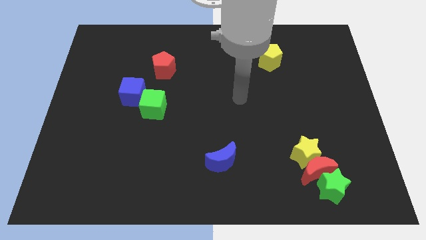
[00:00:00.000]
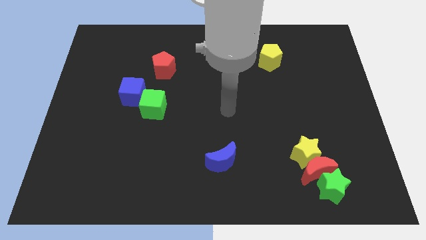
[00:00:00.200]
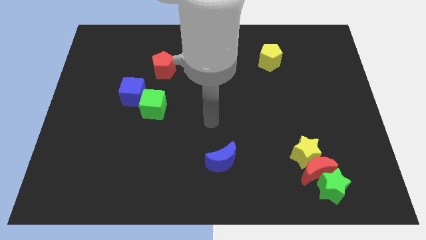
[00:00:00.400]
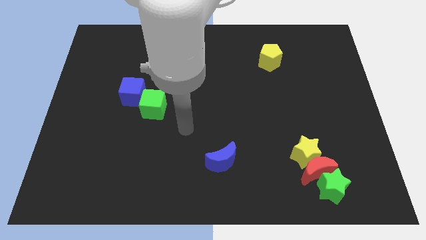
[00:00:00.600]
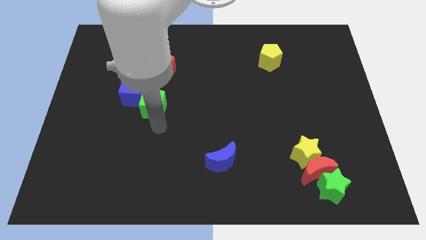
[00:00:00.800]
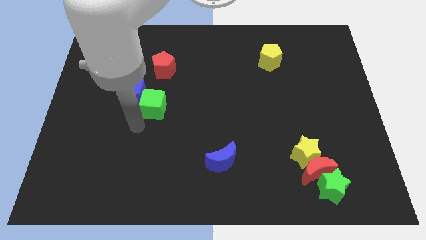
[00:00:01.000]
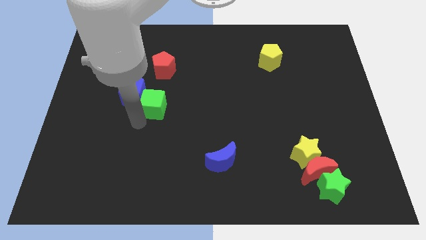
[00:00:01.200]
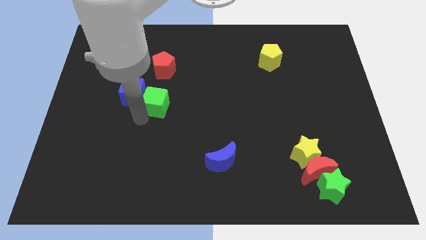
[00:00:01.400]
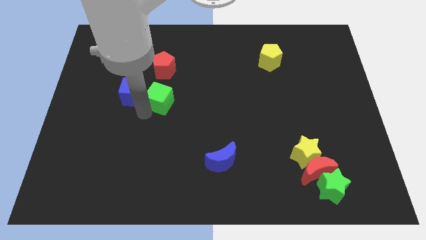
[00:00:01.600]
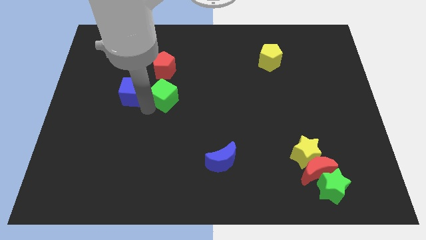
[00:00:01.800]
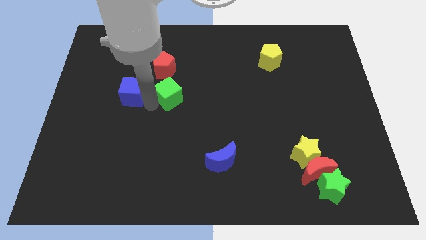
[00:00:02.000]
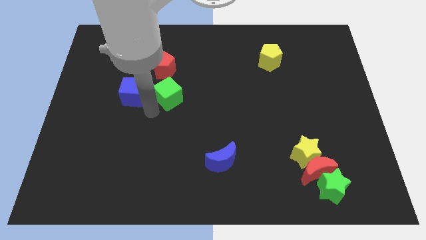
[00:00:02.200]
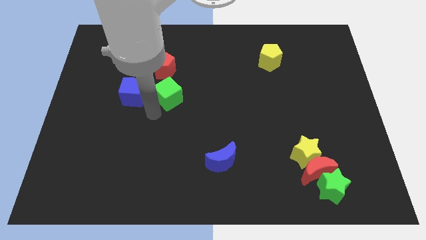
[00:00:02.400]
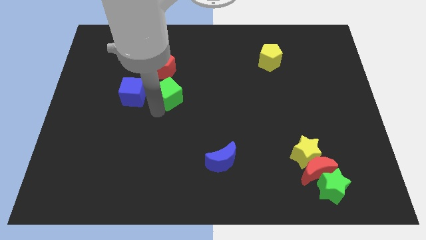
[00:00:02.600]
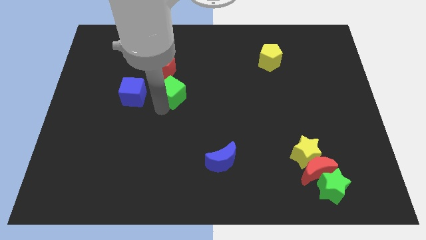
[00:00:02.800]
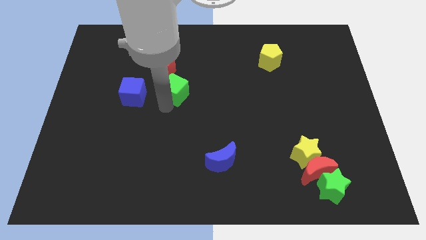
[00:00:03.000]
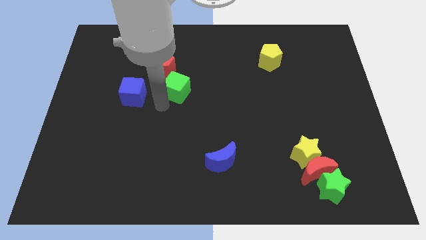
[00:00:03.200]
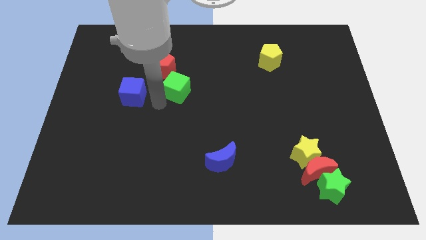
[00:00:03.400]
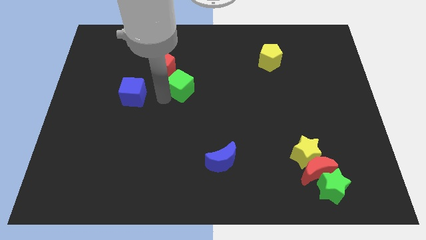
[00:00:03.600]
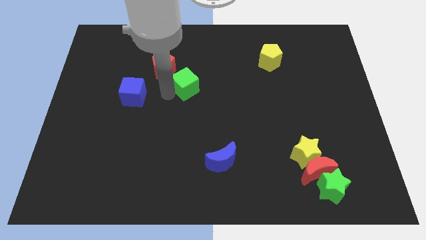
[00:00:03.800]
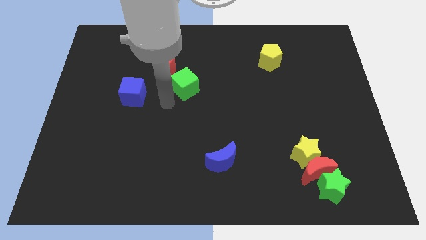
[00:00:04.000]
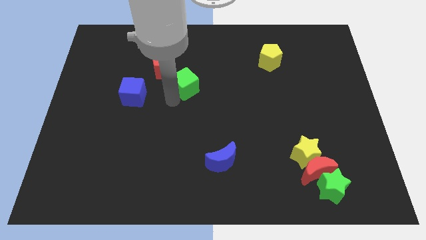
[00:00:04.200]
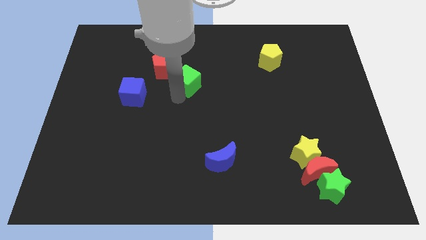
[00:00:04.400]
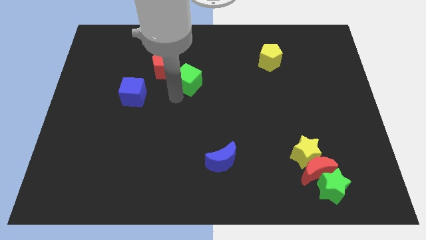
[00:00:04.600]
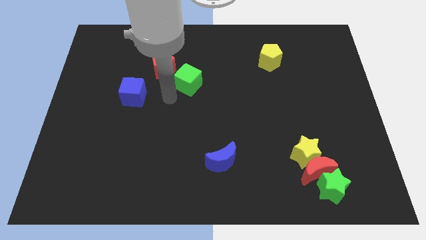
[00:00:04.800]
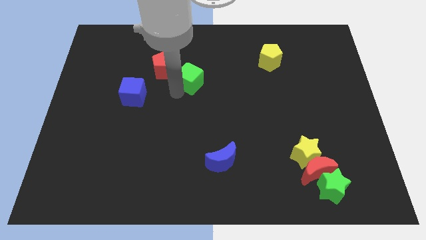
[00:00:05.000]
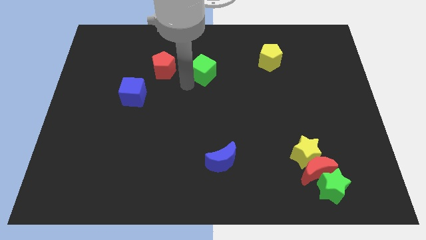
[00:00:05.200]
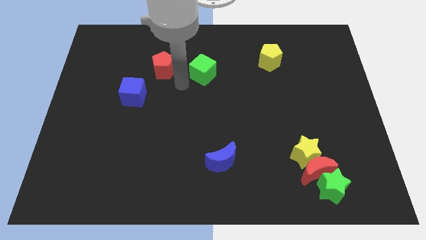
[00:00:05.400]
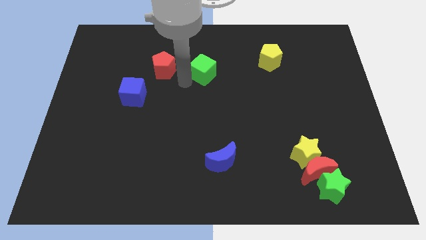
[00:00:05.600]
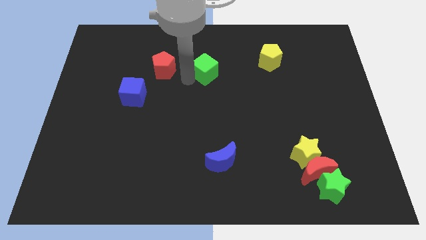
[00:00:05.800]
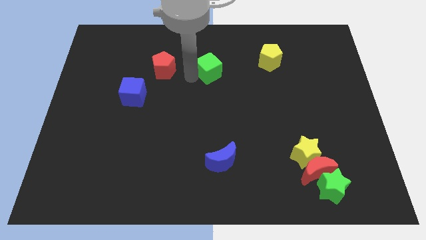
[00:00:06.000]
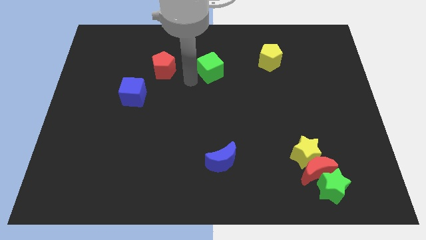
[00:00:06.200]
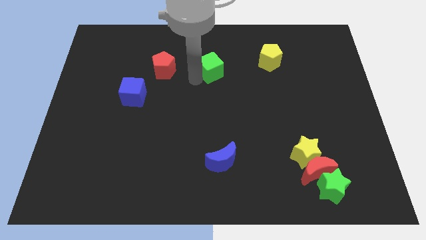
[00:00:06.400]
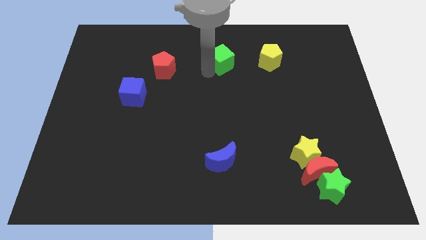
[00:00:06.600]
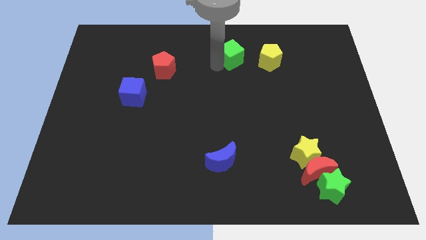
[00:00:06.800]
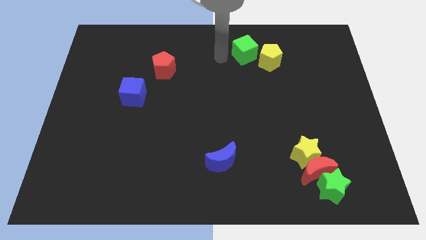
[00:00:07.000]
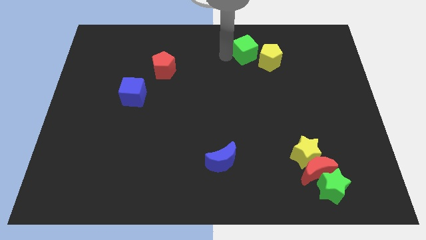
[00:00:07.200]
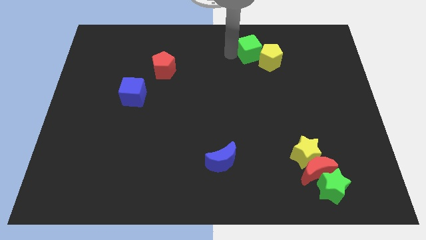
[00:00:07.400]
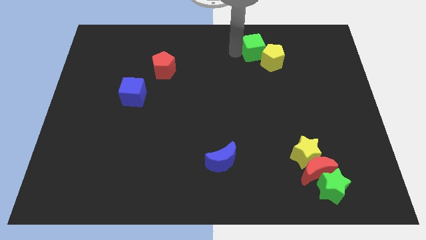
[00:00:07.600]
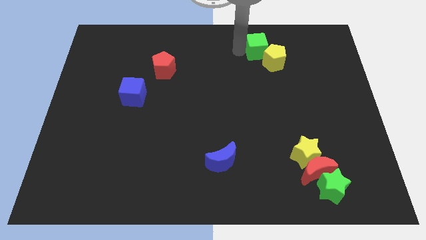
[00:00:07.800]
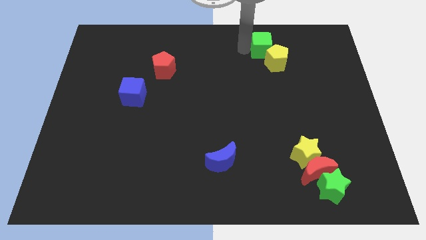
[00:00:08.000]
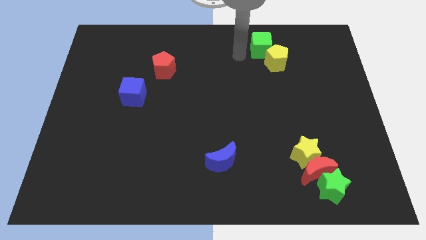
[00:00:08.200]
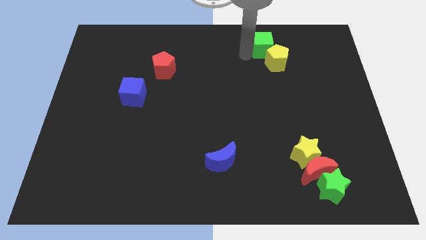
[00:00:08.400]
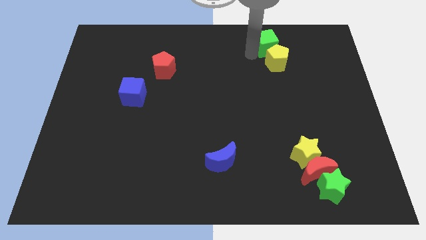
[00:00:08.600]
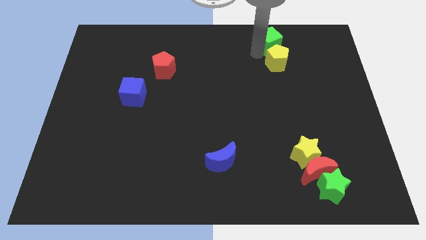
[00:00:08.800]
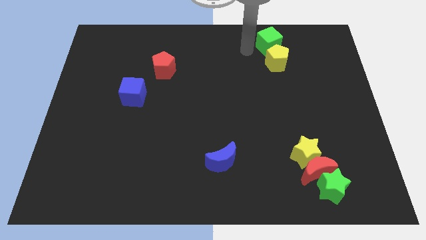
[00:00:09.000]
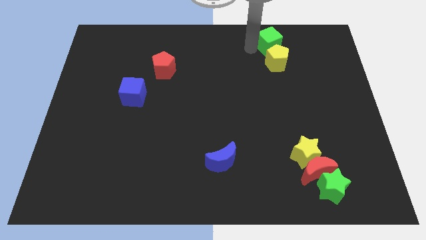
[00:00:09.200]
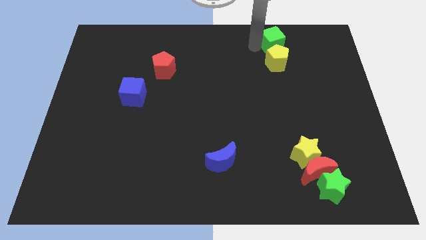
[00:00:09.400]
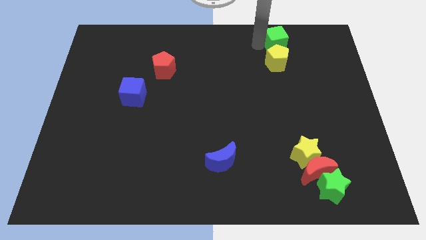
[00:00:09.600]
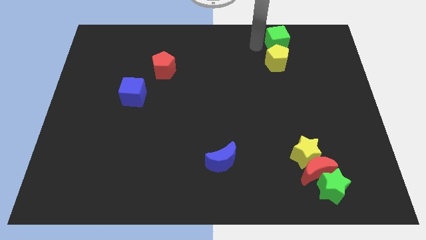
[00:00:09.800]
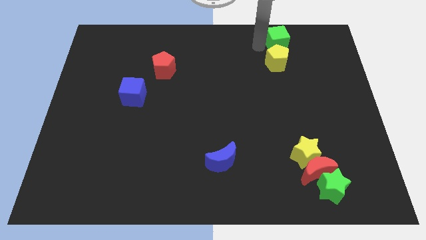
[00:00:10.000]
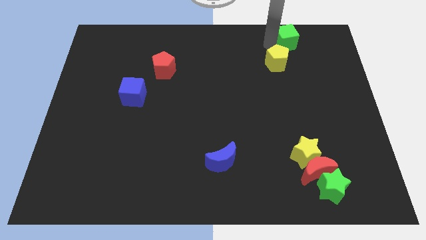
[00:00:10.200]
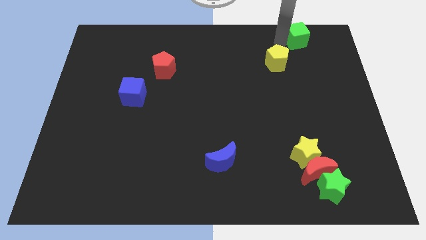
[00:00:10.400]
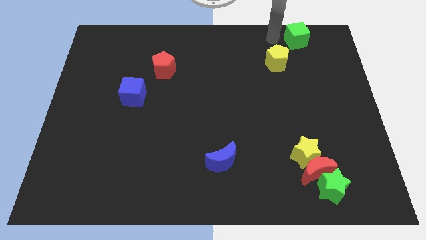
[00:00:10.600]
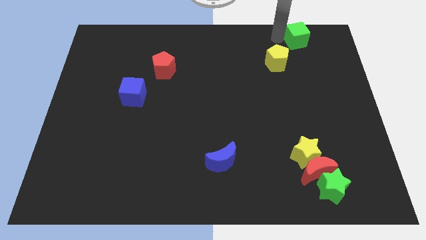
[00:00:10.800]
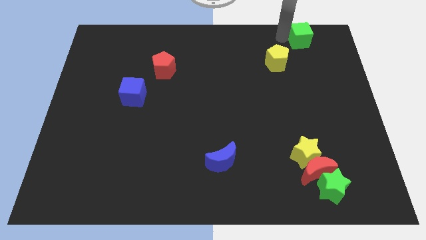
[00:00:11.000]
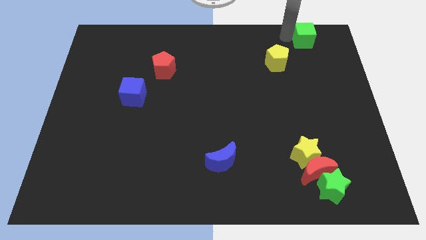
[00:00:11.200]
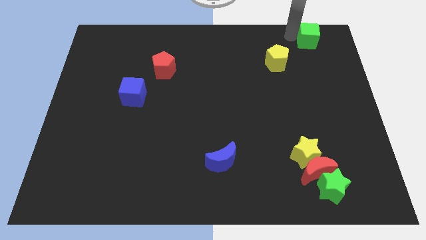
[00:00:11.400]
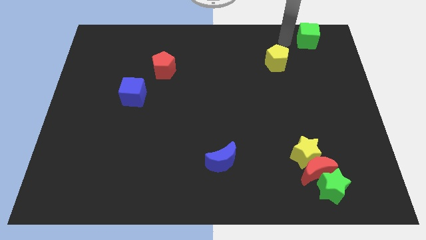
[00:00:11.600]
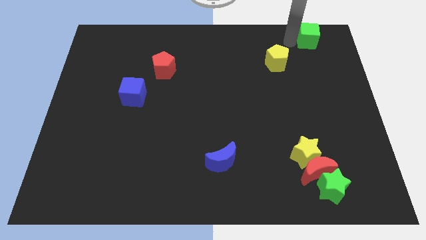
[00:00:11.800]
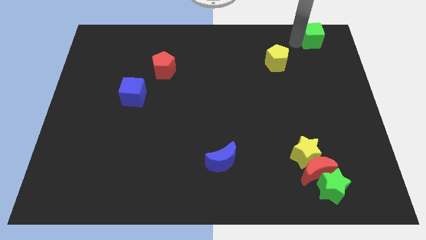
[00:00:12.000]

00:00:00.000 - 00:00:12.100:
slide the green cube to the top right corner

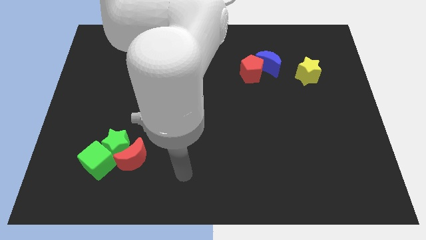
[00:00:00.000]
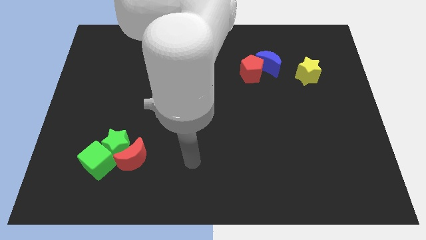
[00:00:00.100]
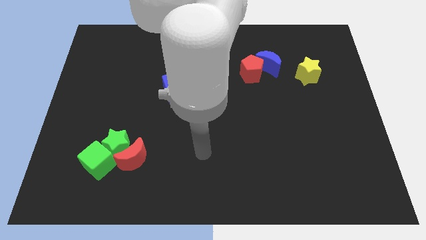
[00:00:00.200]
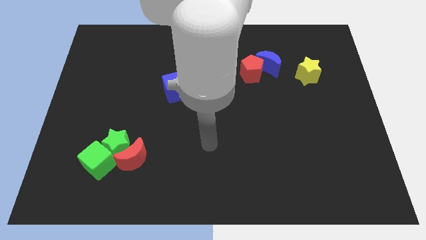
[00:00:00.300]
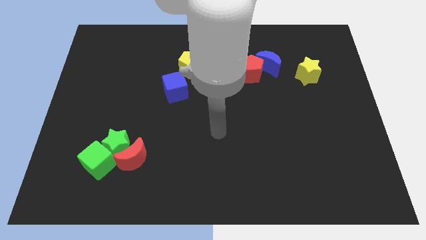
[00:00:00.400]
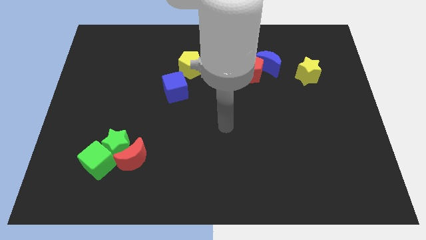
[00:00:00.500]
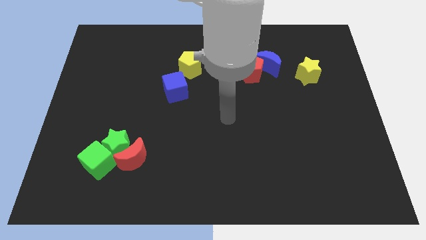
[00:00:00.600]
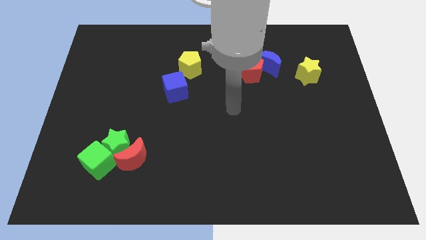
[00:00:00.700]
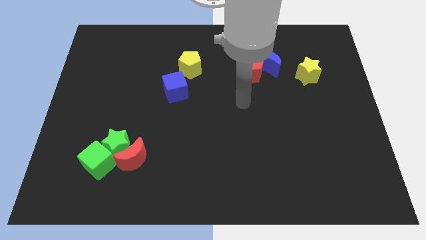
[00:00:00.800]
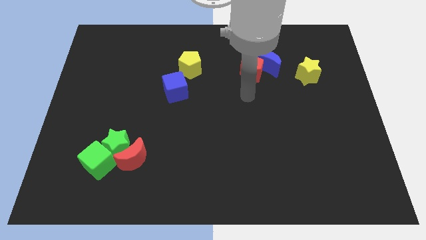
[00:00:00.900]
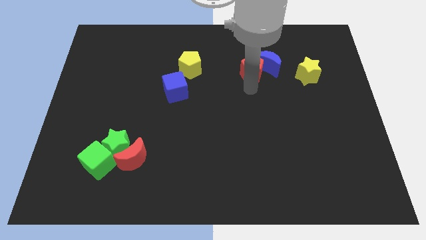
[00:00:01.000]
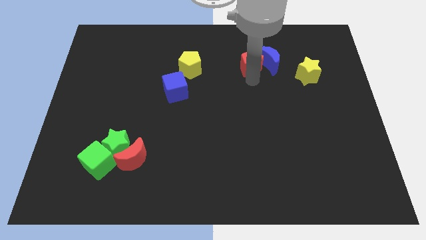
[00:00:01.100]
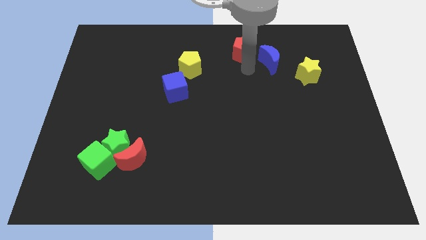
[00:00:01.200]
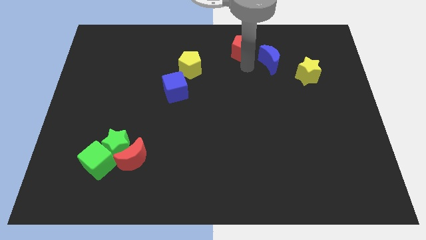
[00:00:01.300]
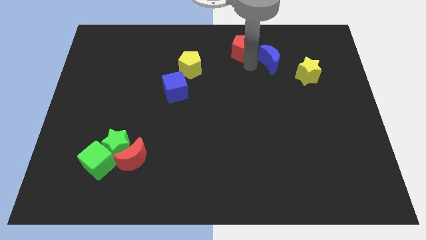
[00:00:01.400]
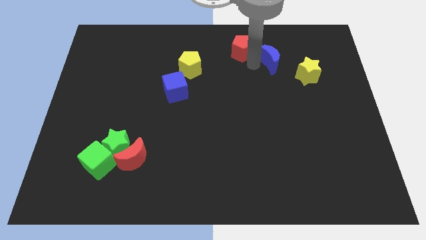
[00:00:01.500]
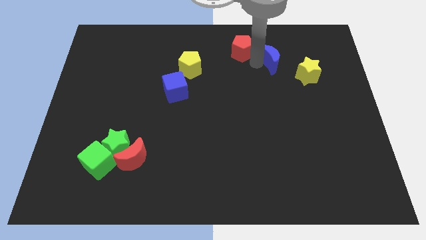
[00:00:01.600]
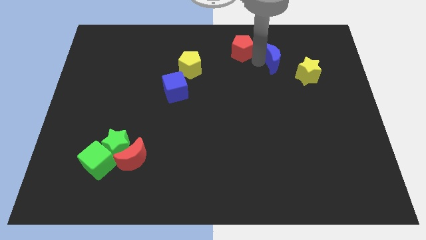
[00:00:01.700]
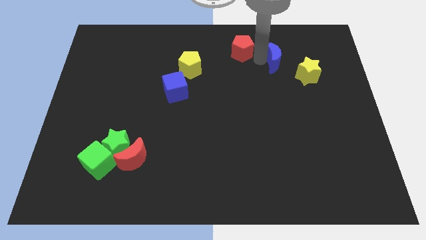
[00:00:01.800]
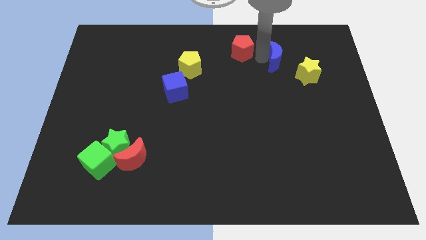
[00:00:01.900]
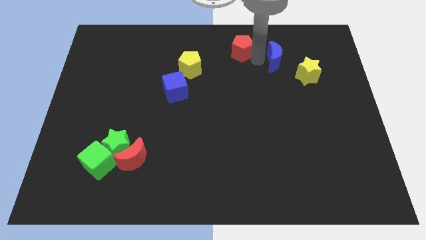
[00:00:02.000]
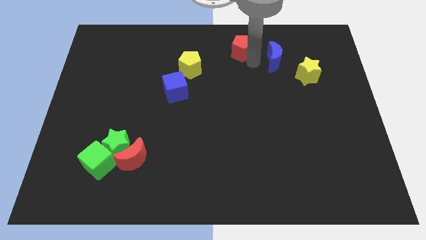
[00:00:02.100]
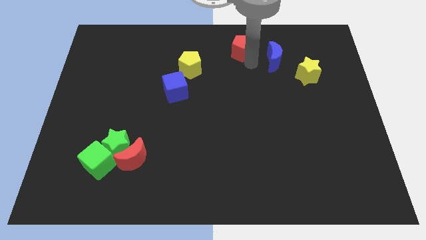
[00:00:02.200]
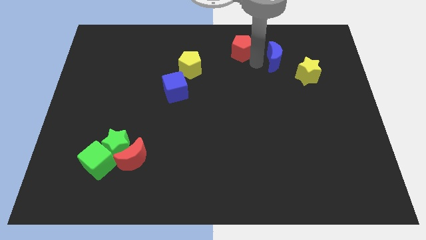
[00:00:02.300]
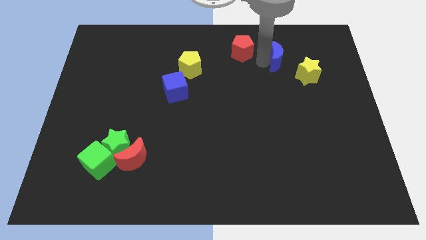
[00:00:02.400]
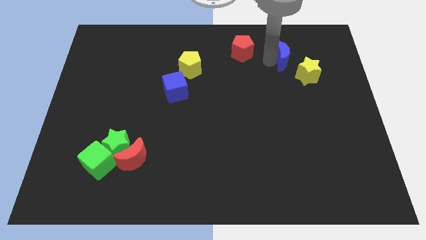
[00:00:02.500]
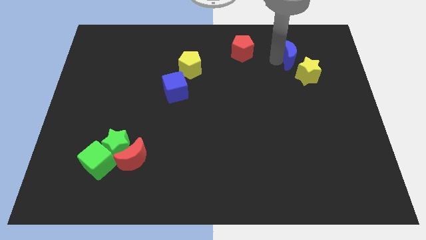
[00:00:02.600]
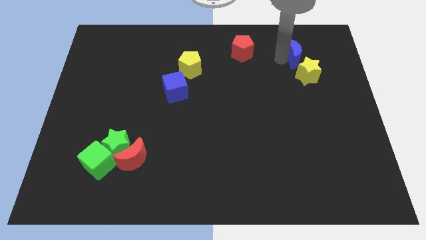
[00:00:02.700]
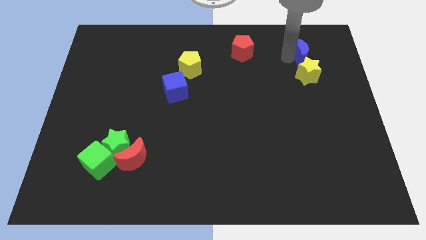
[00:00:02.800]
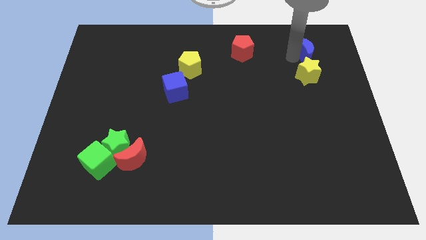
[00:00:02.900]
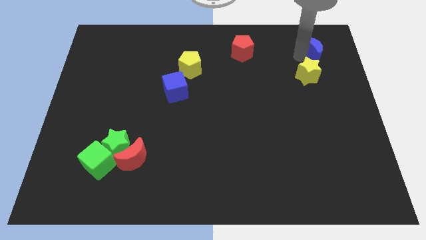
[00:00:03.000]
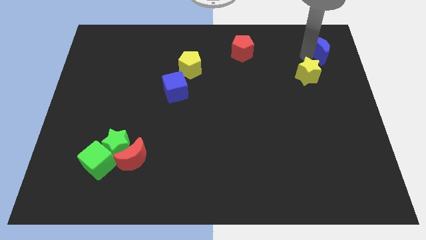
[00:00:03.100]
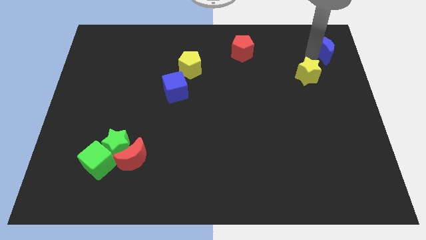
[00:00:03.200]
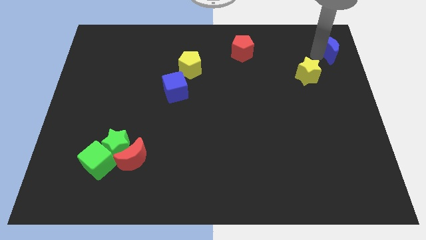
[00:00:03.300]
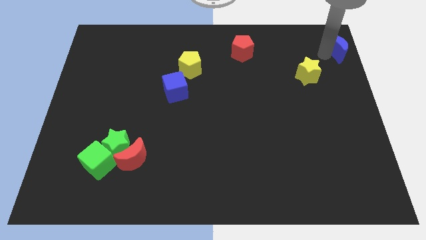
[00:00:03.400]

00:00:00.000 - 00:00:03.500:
slide the blue moon to the top right
